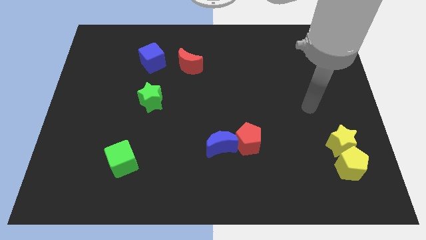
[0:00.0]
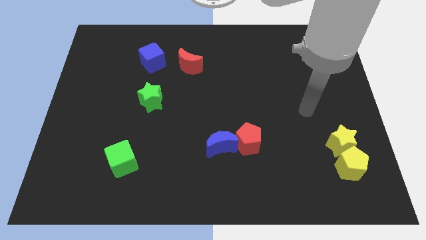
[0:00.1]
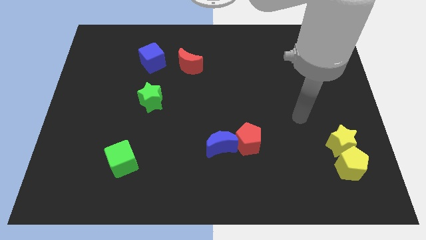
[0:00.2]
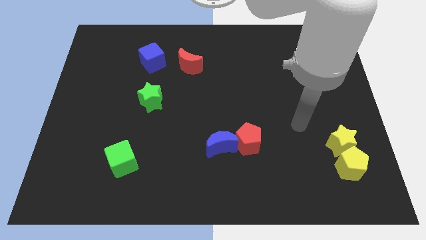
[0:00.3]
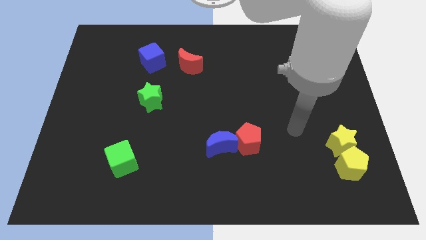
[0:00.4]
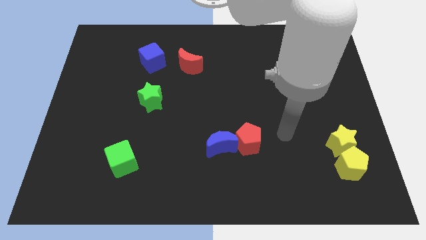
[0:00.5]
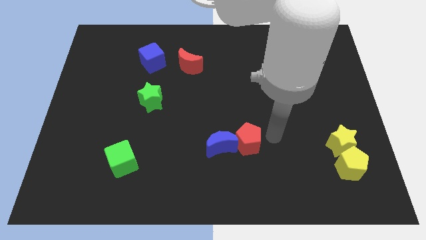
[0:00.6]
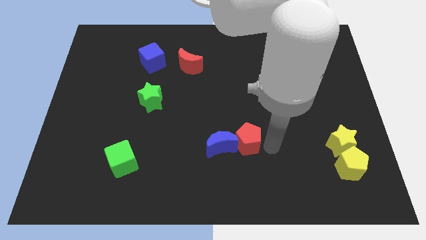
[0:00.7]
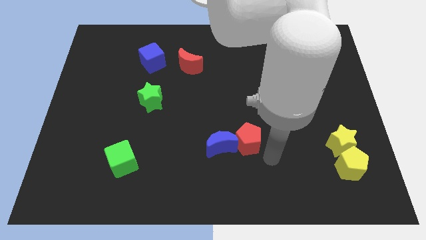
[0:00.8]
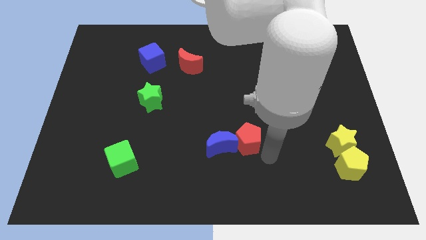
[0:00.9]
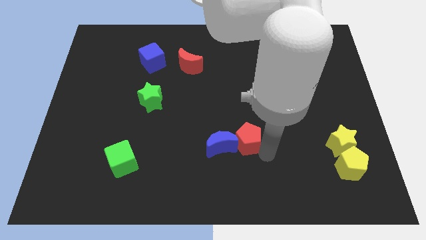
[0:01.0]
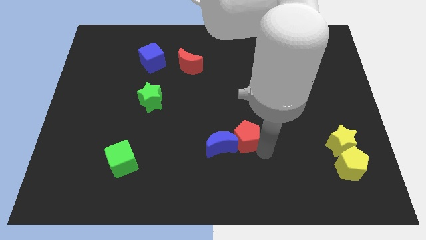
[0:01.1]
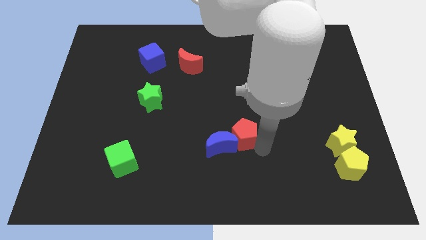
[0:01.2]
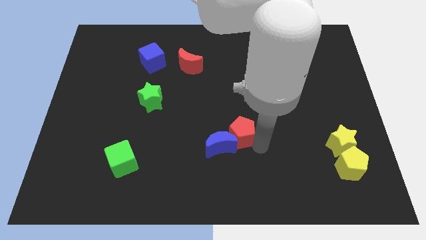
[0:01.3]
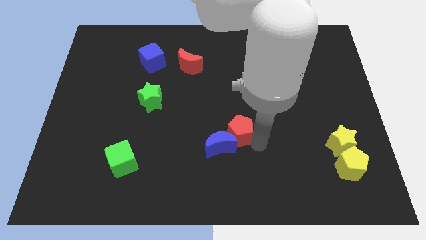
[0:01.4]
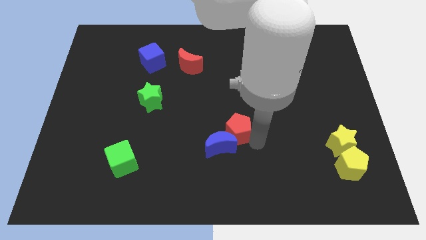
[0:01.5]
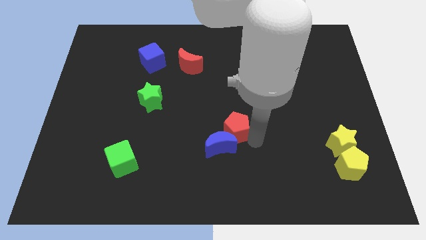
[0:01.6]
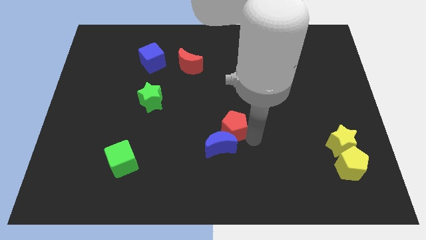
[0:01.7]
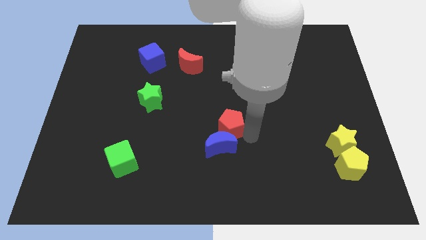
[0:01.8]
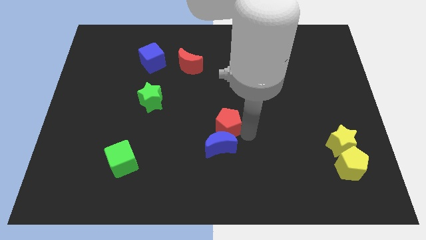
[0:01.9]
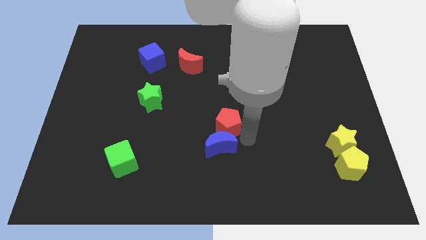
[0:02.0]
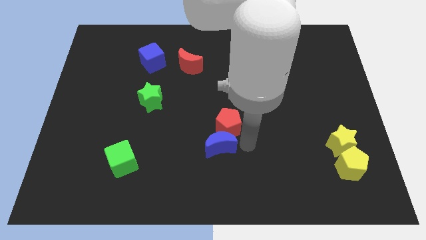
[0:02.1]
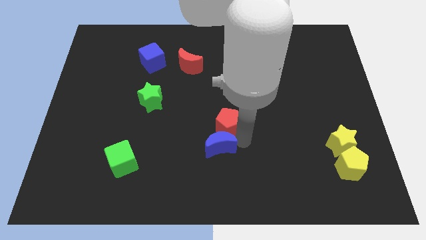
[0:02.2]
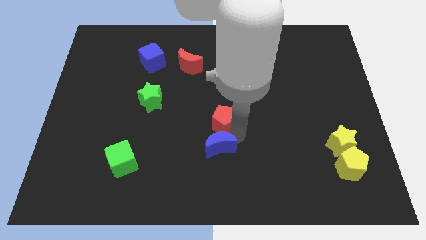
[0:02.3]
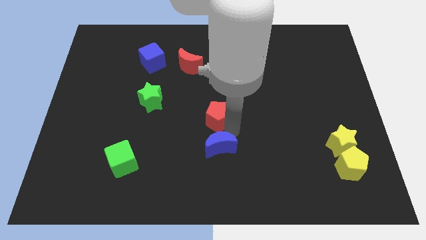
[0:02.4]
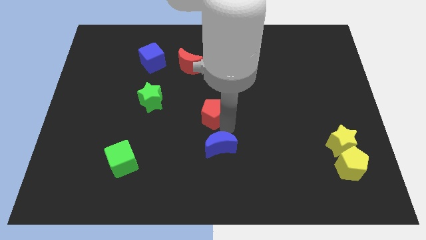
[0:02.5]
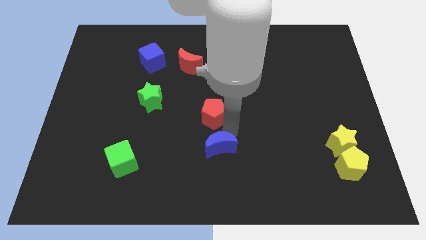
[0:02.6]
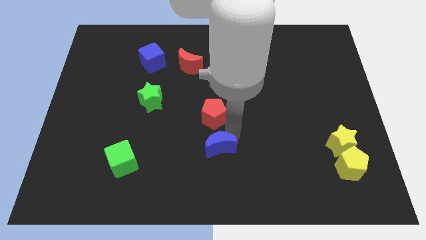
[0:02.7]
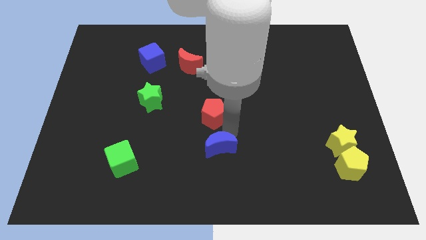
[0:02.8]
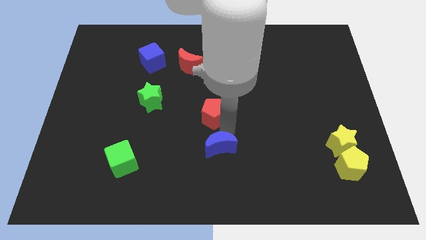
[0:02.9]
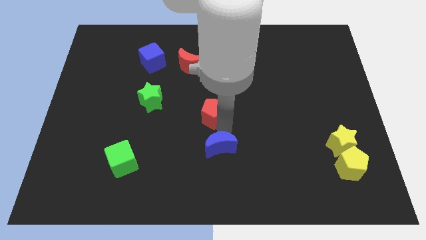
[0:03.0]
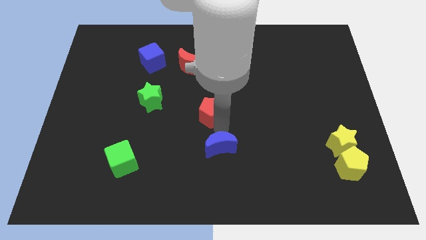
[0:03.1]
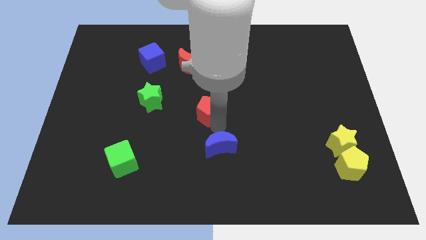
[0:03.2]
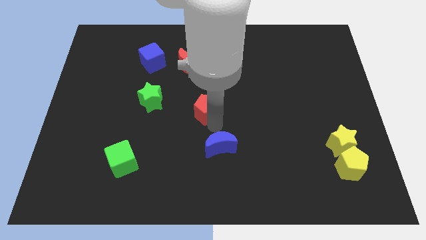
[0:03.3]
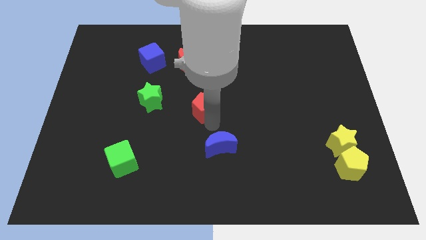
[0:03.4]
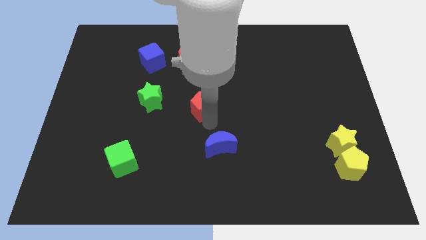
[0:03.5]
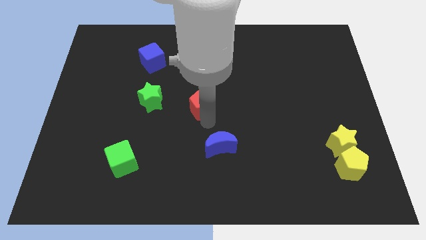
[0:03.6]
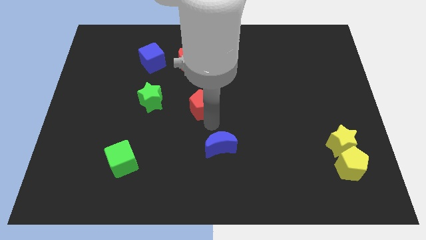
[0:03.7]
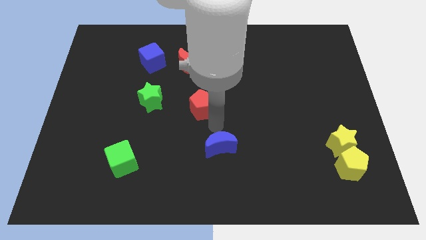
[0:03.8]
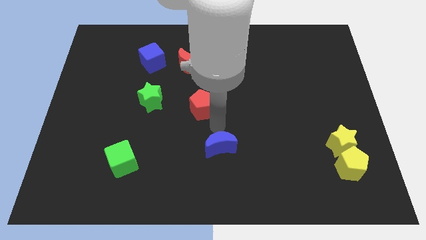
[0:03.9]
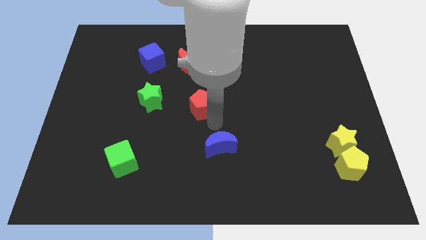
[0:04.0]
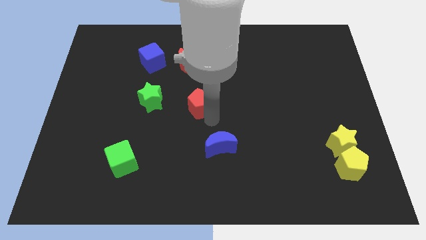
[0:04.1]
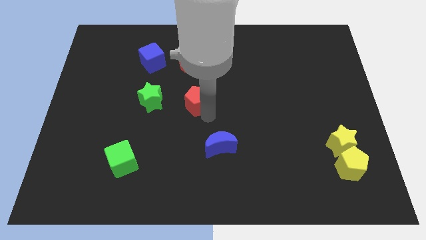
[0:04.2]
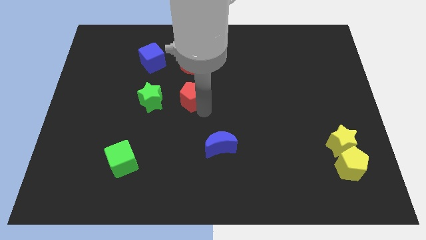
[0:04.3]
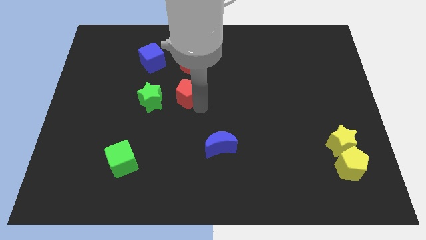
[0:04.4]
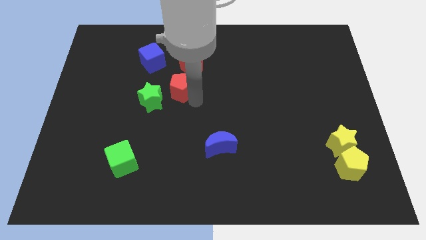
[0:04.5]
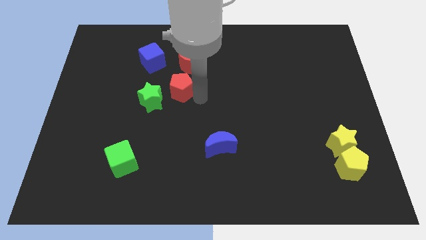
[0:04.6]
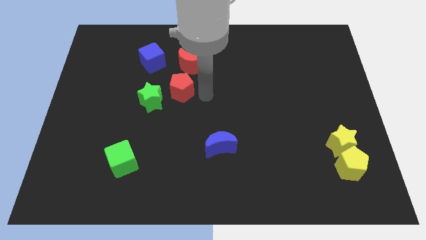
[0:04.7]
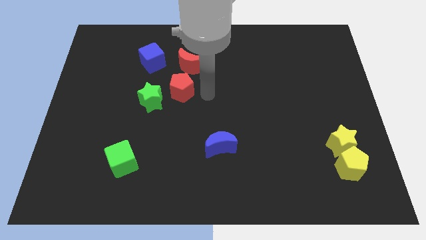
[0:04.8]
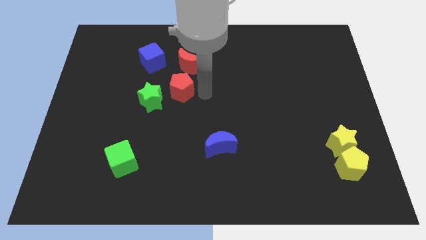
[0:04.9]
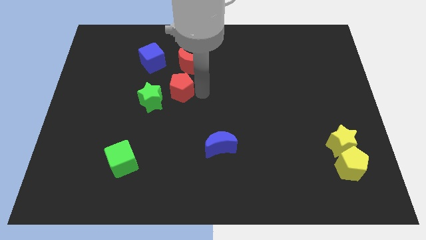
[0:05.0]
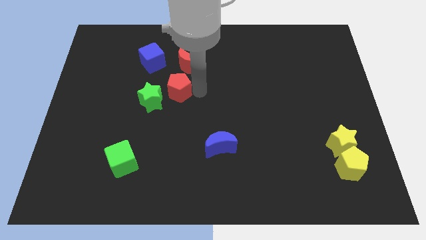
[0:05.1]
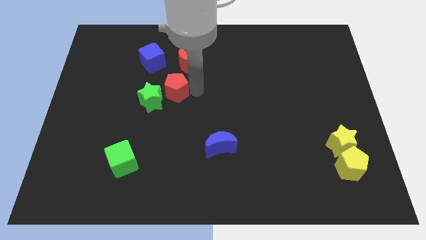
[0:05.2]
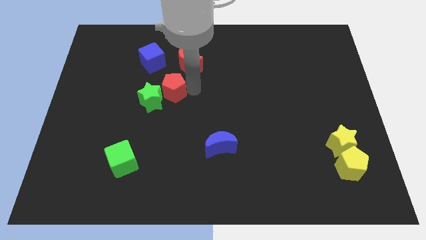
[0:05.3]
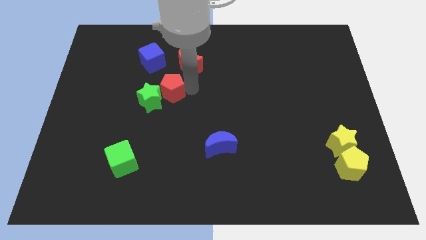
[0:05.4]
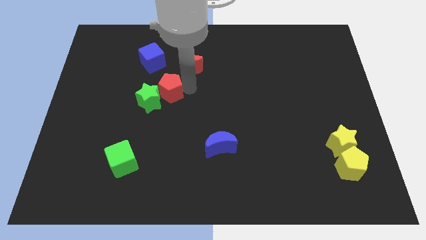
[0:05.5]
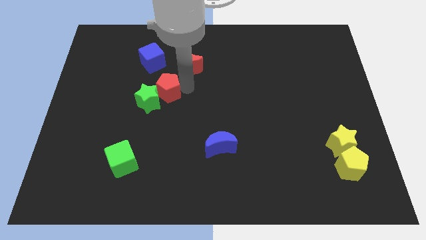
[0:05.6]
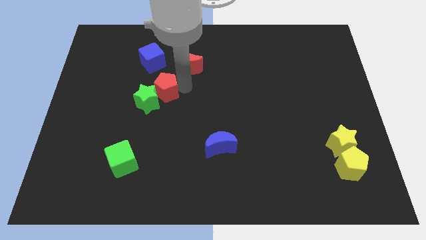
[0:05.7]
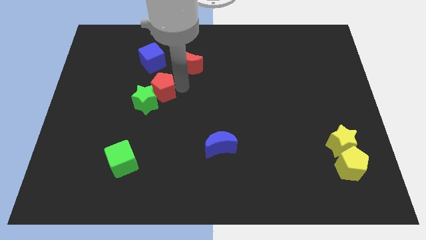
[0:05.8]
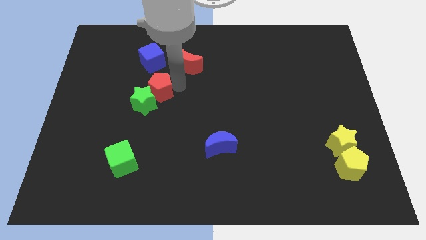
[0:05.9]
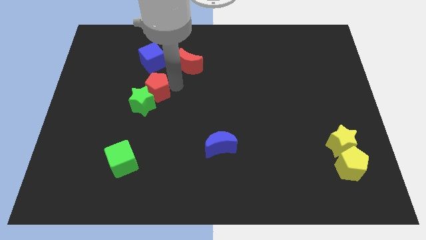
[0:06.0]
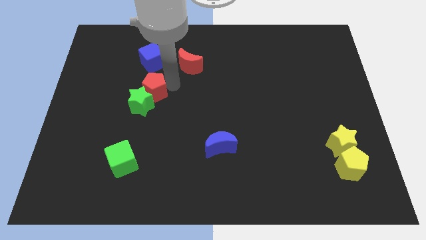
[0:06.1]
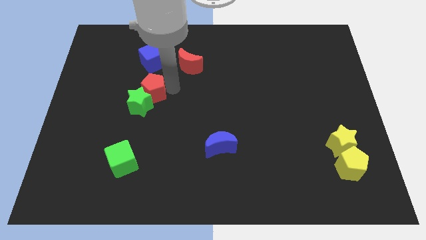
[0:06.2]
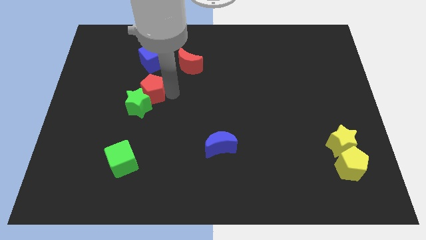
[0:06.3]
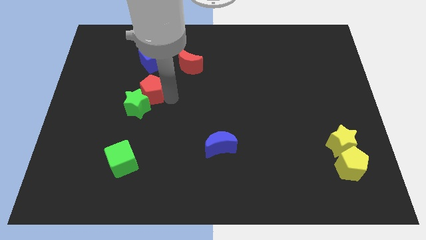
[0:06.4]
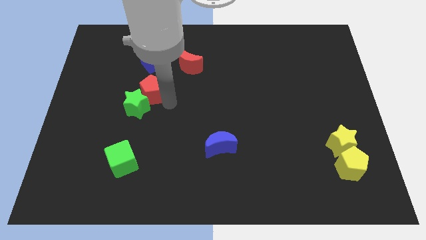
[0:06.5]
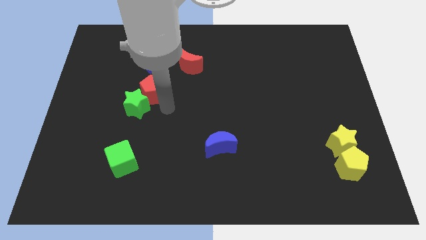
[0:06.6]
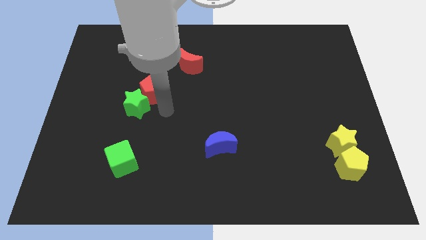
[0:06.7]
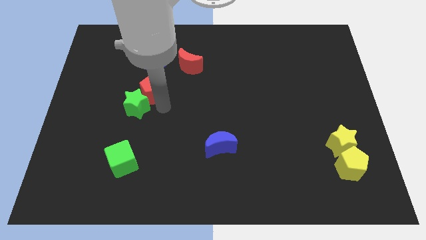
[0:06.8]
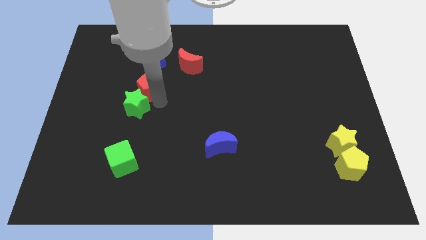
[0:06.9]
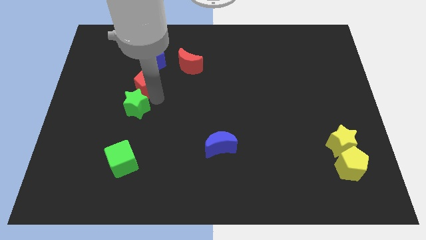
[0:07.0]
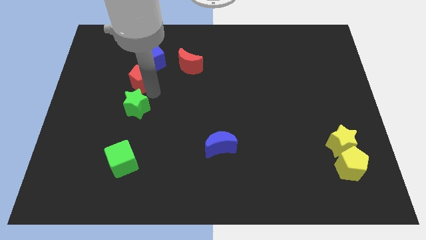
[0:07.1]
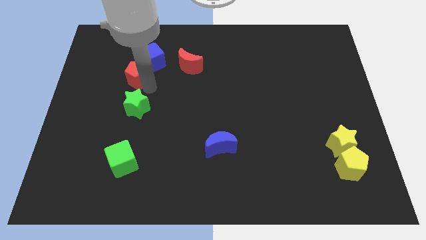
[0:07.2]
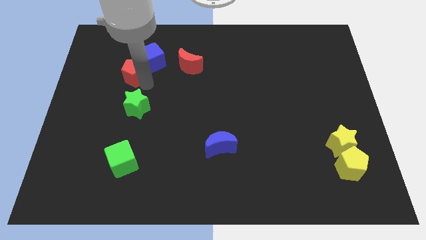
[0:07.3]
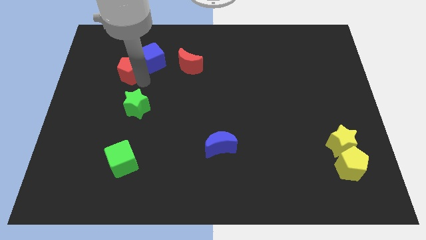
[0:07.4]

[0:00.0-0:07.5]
slide the red pentagon to the left side of the blue cube
